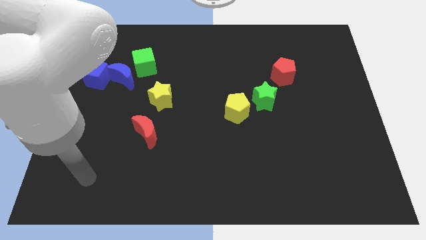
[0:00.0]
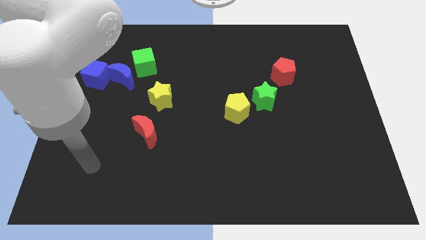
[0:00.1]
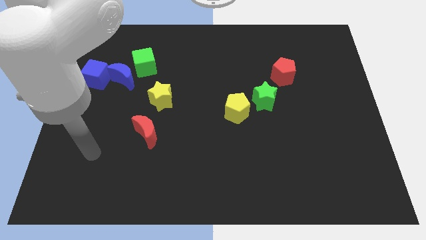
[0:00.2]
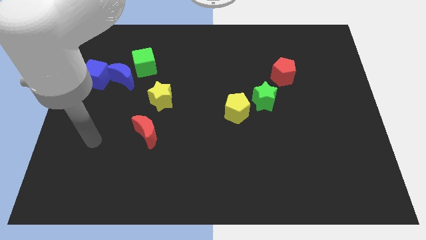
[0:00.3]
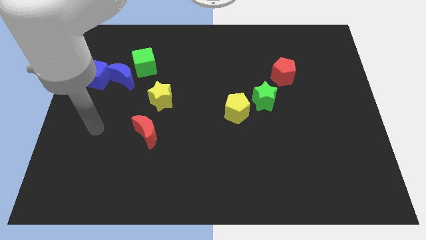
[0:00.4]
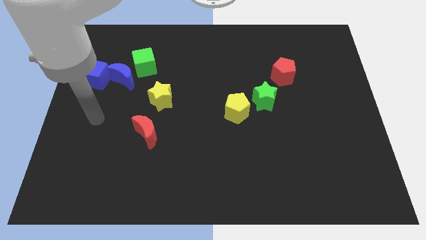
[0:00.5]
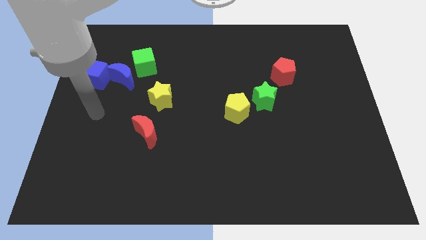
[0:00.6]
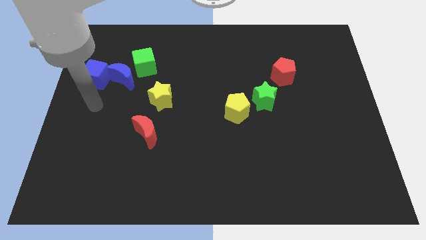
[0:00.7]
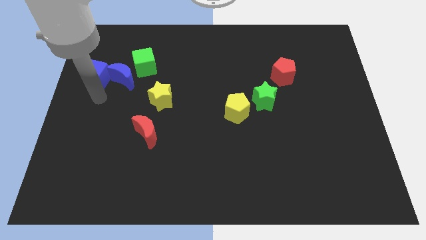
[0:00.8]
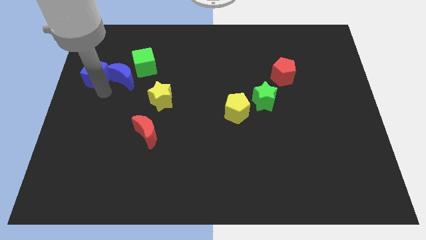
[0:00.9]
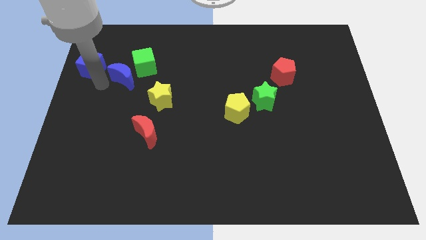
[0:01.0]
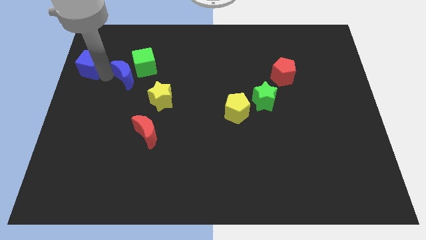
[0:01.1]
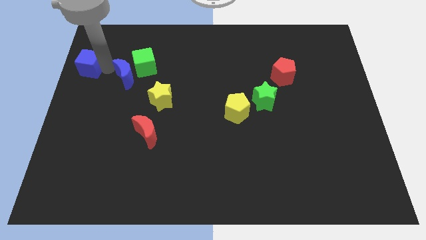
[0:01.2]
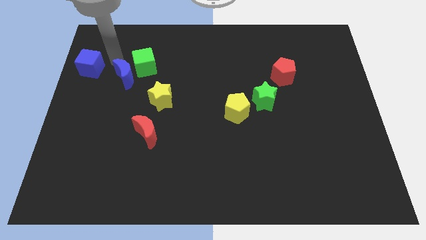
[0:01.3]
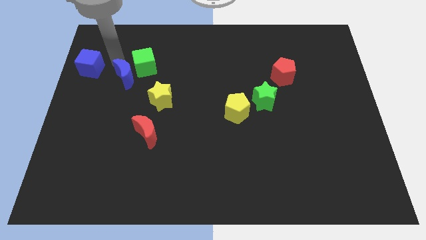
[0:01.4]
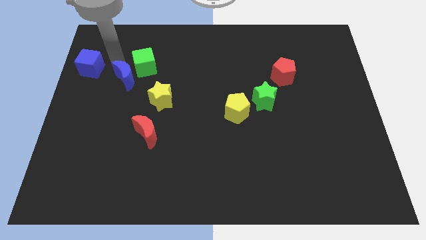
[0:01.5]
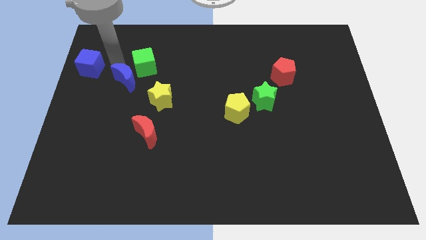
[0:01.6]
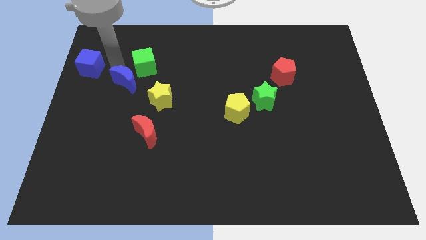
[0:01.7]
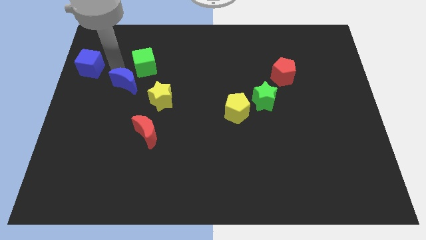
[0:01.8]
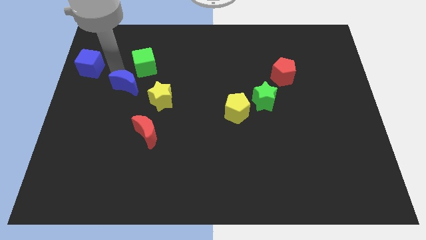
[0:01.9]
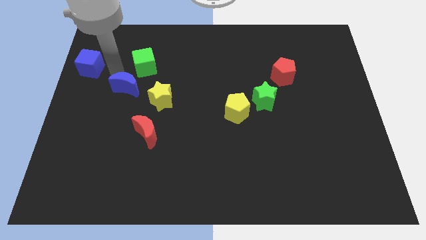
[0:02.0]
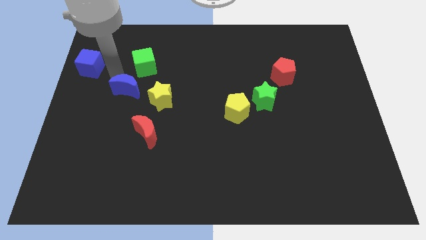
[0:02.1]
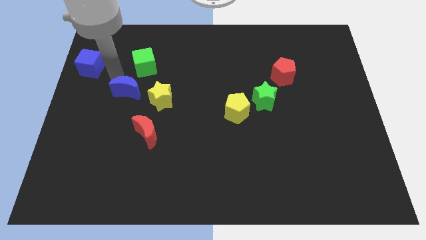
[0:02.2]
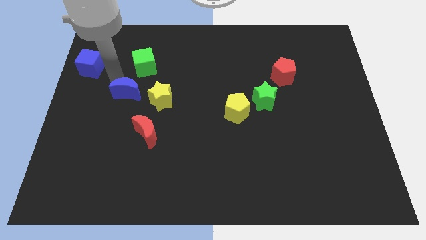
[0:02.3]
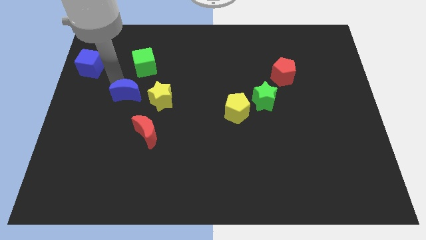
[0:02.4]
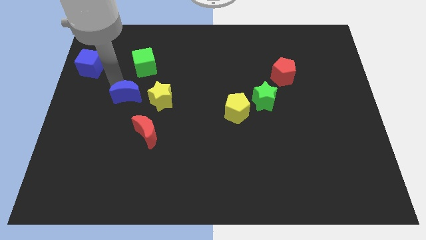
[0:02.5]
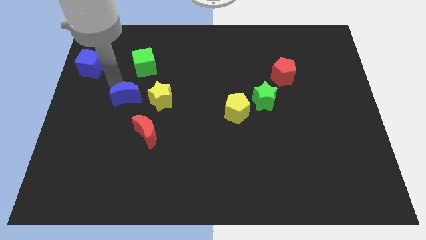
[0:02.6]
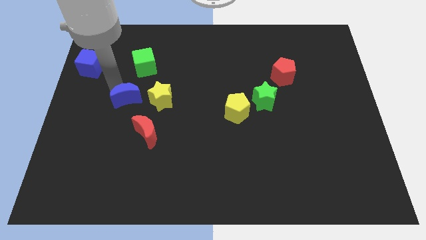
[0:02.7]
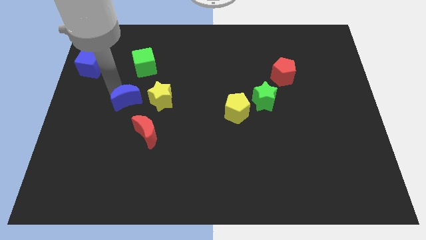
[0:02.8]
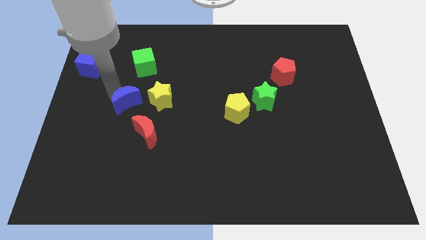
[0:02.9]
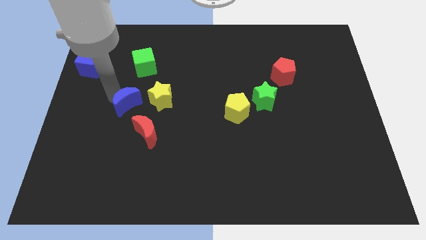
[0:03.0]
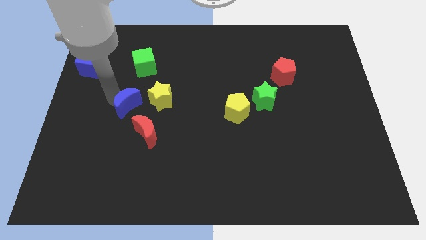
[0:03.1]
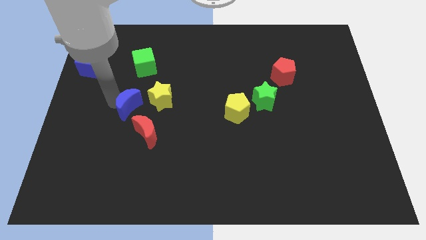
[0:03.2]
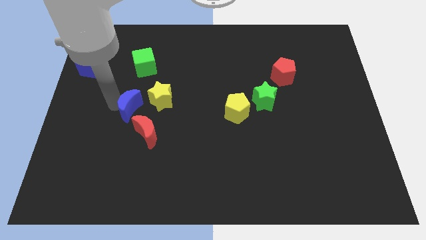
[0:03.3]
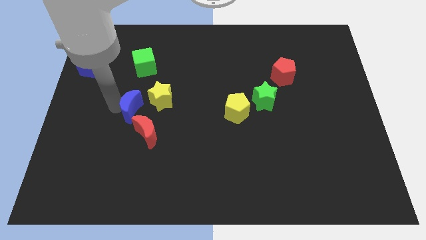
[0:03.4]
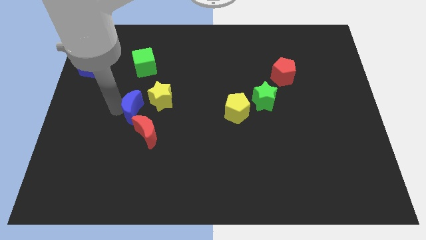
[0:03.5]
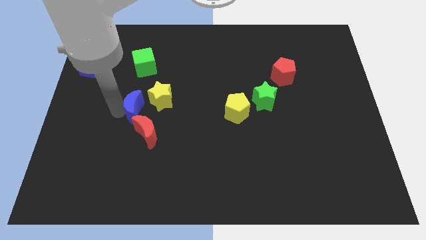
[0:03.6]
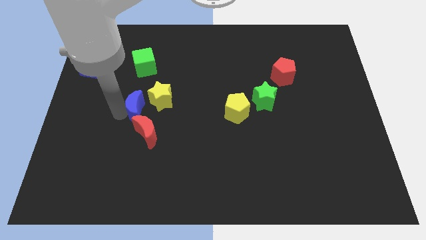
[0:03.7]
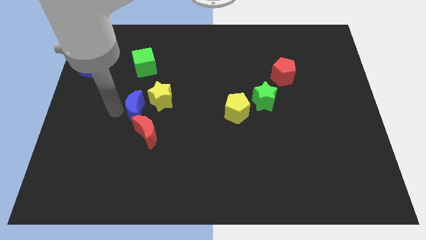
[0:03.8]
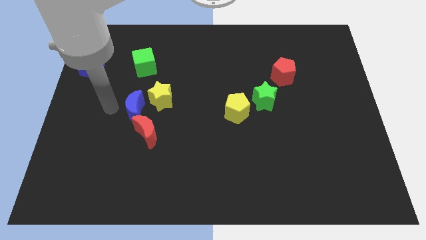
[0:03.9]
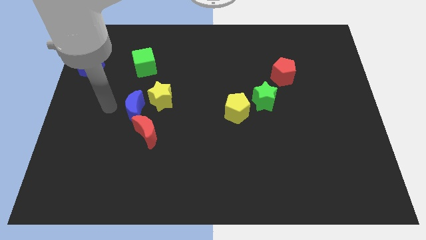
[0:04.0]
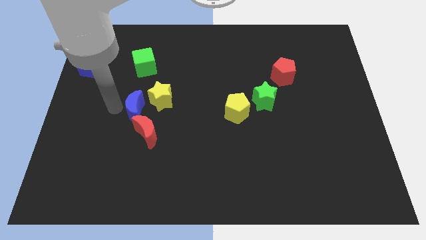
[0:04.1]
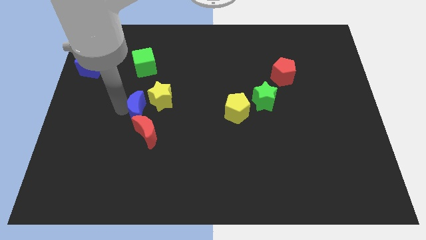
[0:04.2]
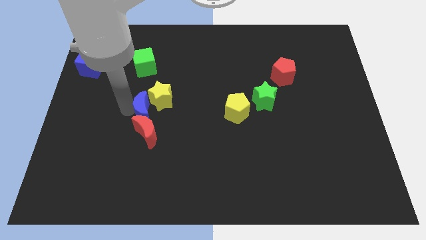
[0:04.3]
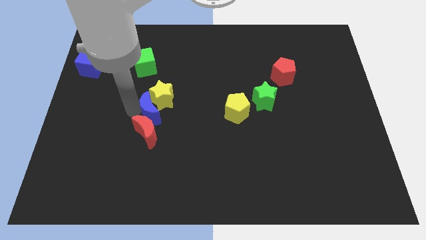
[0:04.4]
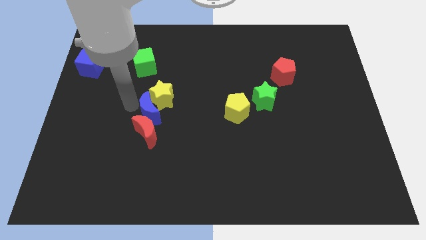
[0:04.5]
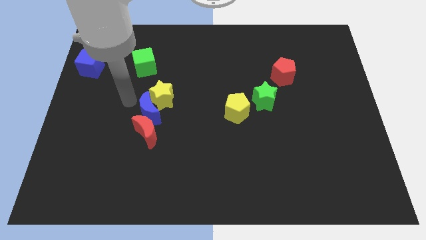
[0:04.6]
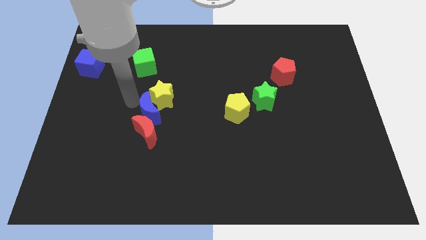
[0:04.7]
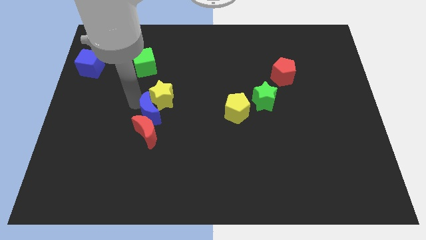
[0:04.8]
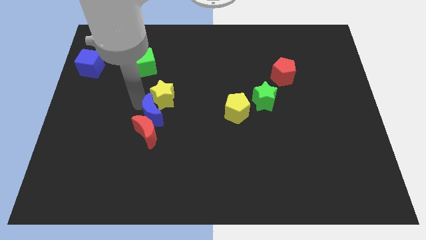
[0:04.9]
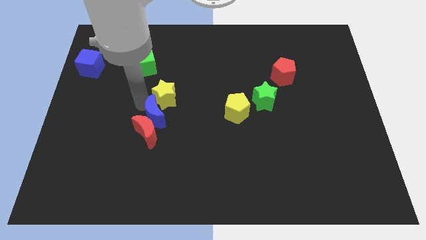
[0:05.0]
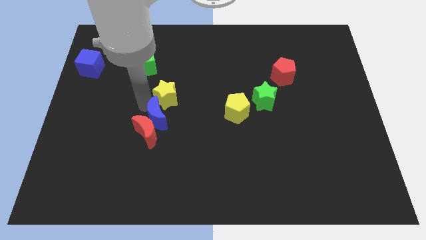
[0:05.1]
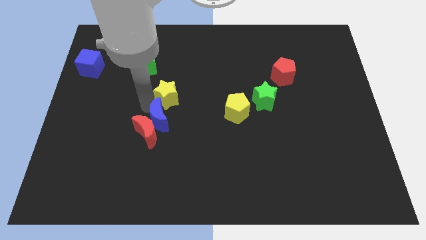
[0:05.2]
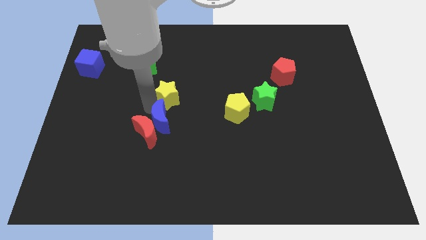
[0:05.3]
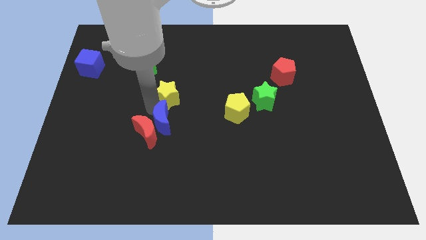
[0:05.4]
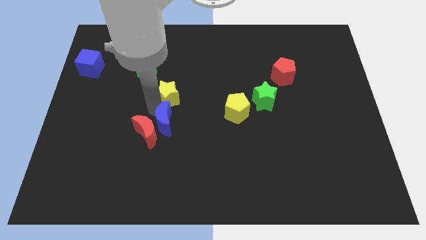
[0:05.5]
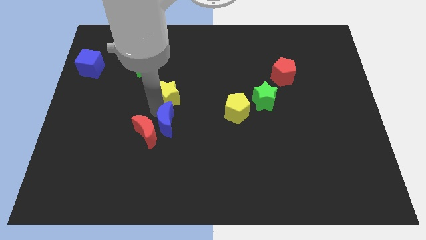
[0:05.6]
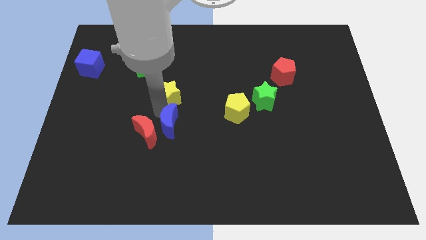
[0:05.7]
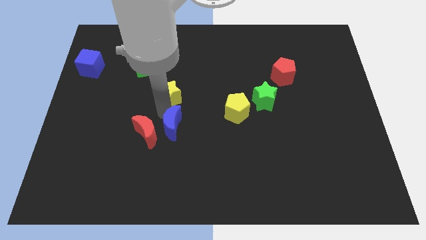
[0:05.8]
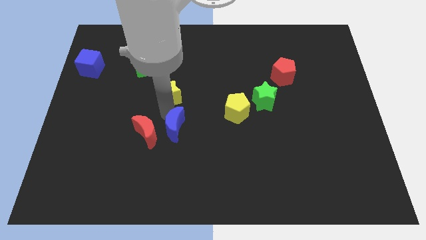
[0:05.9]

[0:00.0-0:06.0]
move the blue moon downwards and right diagonally

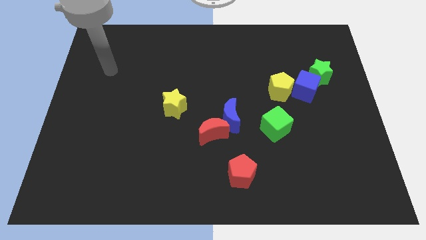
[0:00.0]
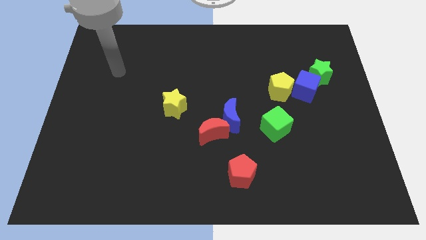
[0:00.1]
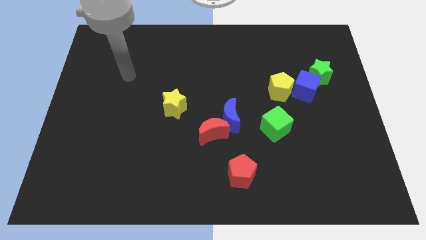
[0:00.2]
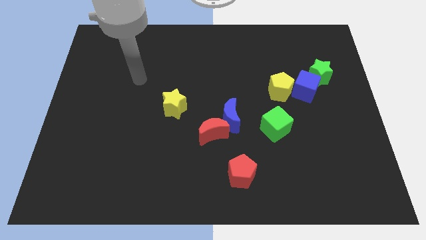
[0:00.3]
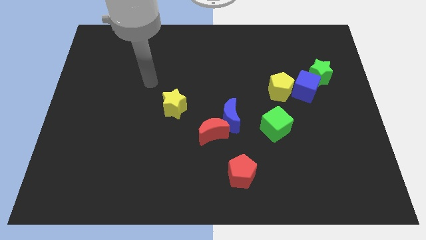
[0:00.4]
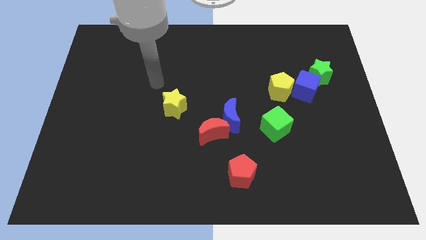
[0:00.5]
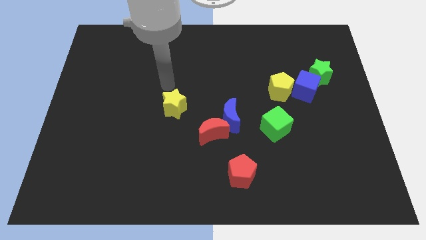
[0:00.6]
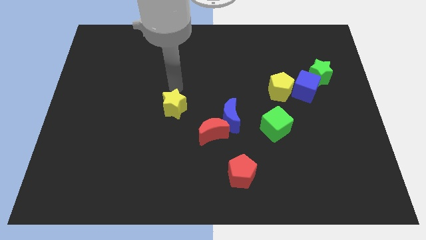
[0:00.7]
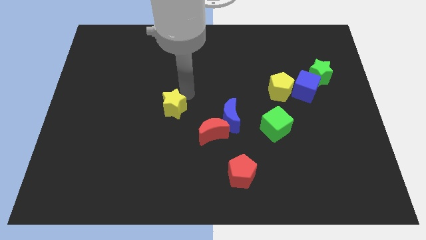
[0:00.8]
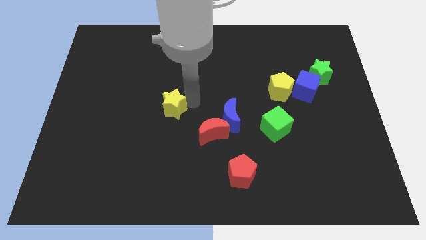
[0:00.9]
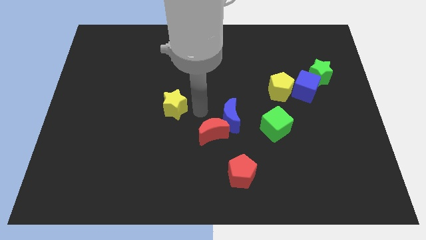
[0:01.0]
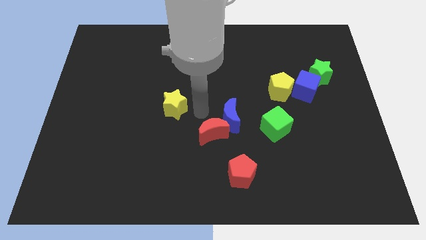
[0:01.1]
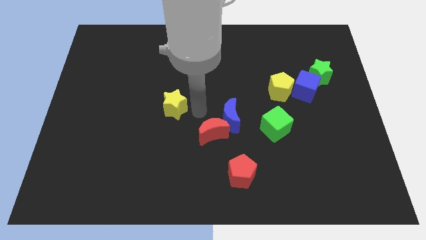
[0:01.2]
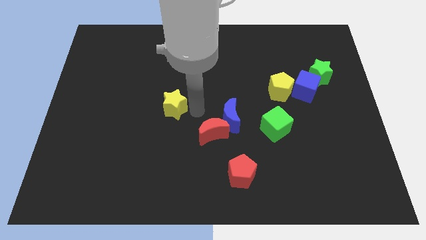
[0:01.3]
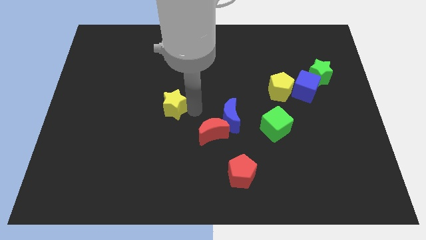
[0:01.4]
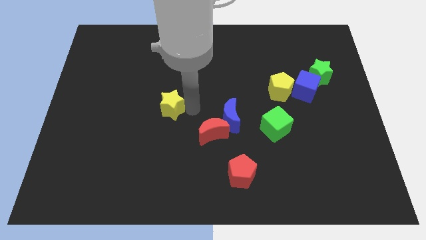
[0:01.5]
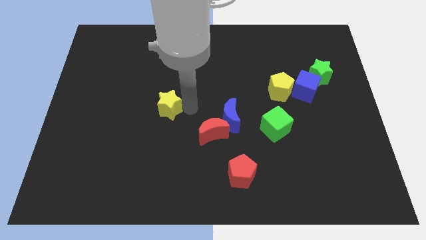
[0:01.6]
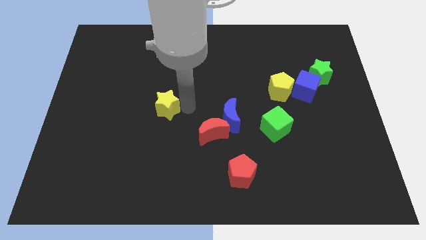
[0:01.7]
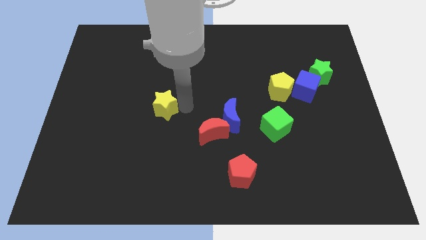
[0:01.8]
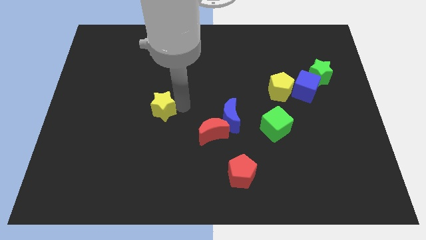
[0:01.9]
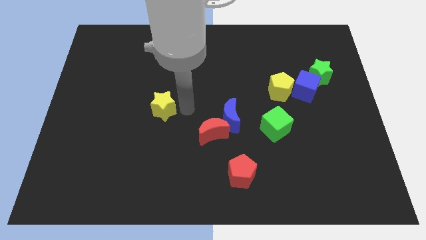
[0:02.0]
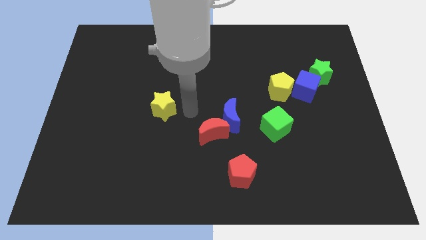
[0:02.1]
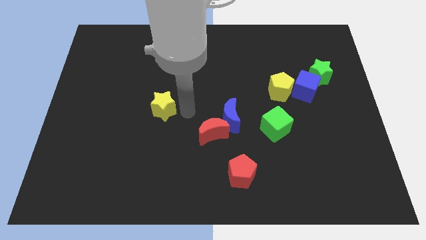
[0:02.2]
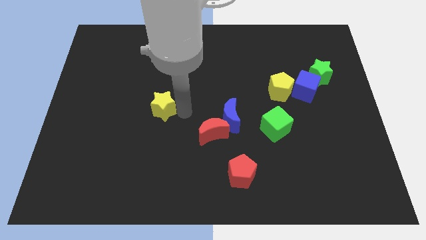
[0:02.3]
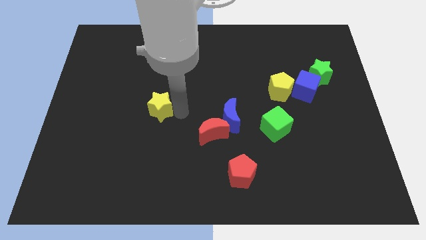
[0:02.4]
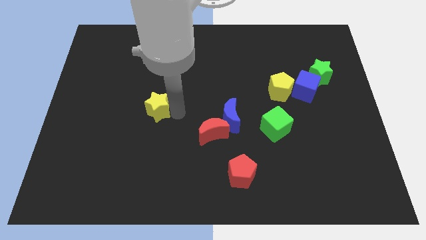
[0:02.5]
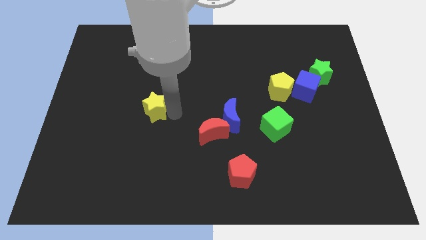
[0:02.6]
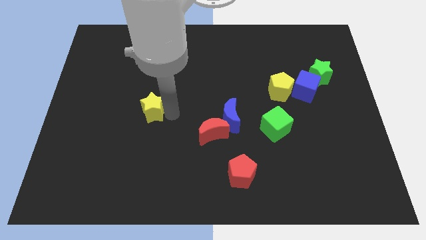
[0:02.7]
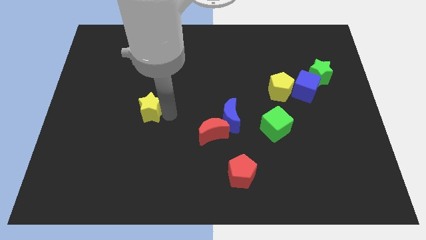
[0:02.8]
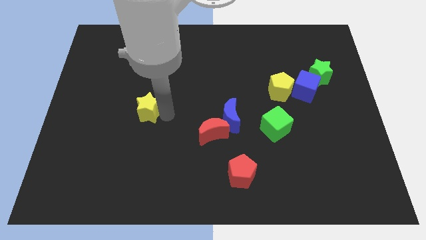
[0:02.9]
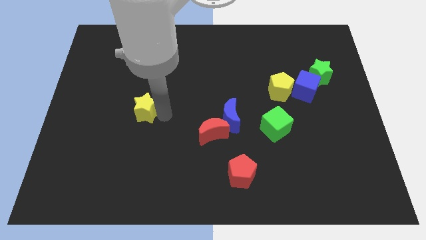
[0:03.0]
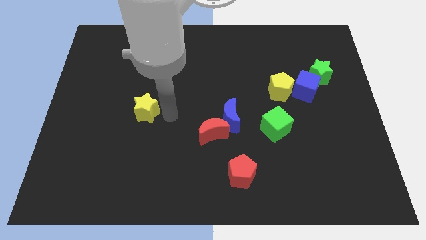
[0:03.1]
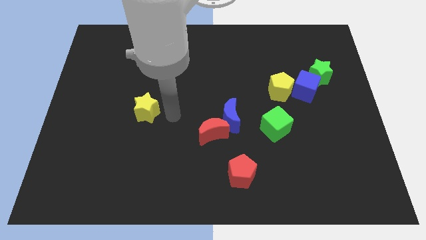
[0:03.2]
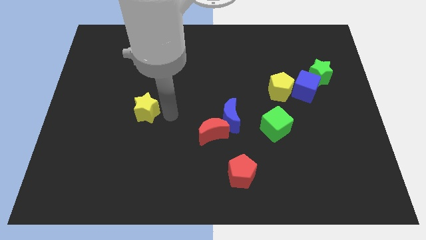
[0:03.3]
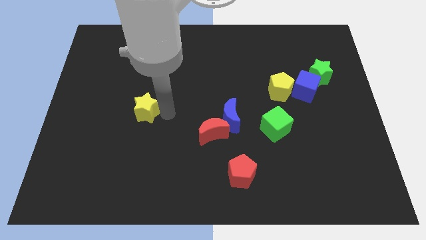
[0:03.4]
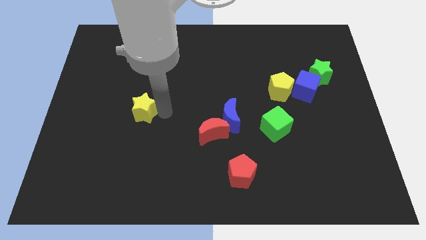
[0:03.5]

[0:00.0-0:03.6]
slightly slide the yellow star left
